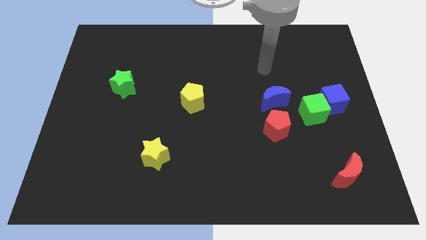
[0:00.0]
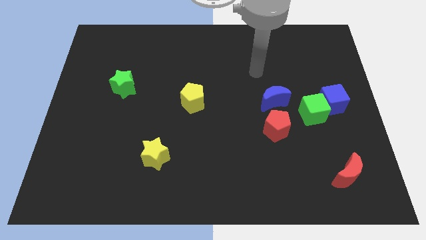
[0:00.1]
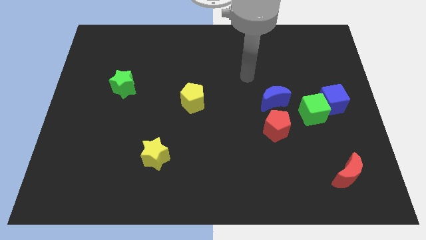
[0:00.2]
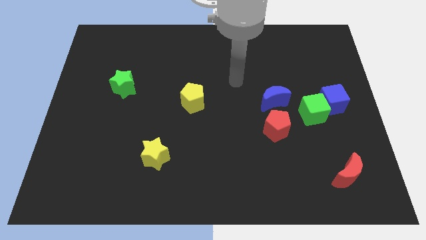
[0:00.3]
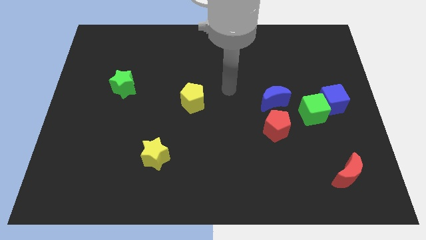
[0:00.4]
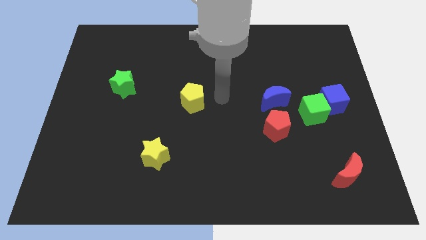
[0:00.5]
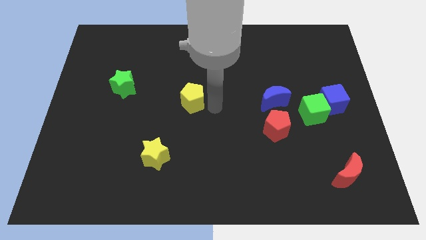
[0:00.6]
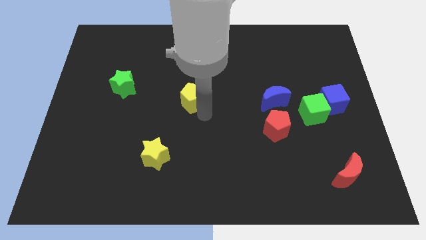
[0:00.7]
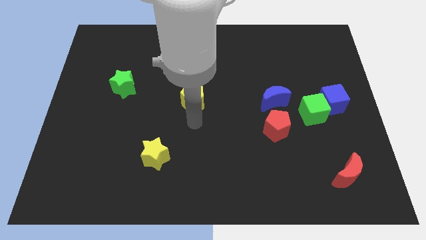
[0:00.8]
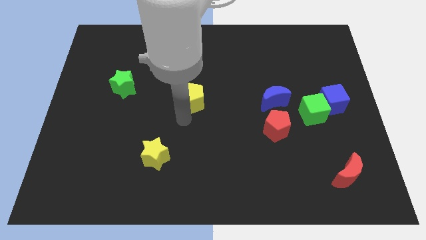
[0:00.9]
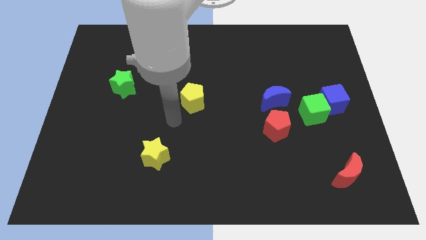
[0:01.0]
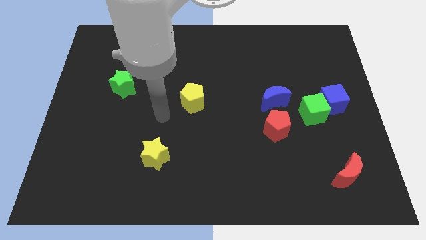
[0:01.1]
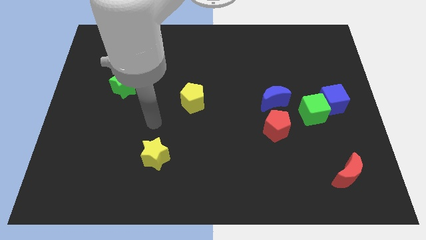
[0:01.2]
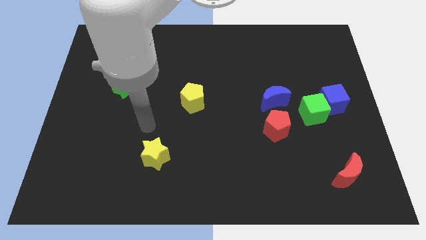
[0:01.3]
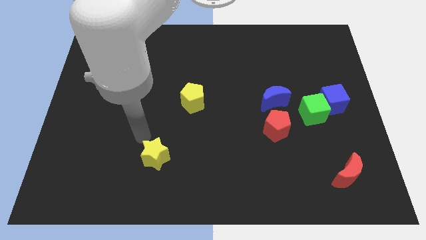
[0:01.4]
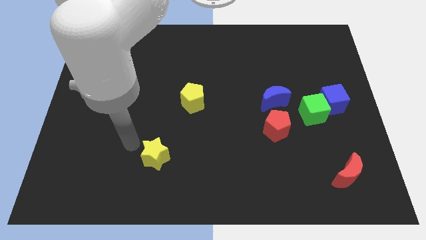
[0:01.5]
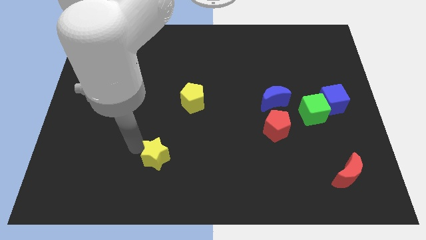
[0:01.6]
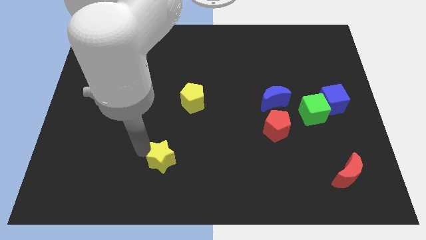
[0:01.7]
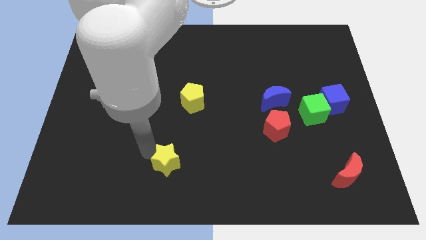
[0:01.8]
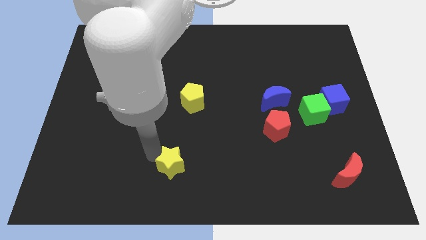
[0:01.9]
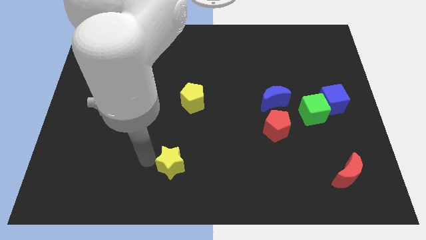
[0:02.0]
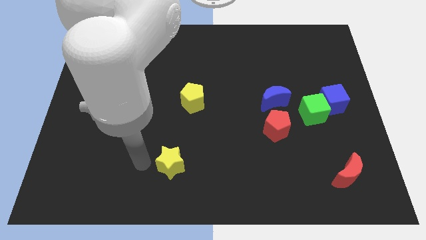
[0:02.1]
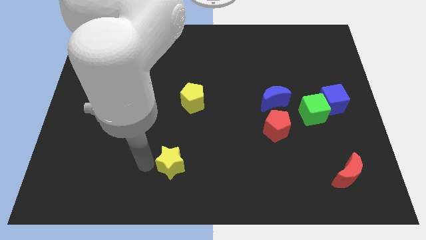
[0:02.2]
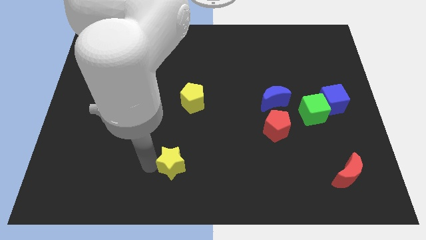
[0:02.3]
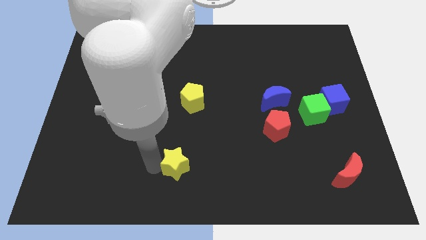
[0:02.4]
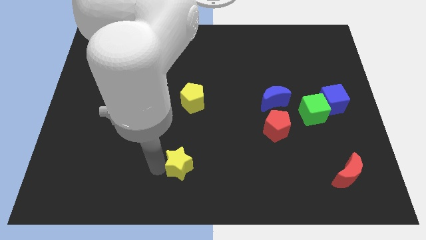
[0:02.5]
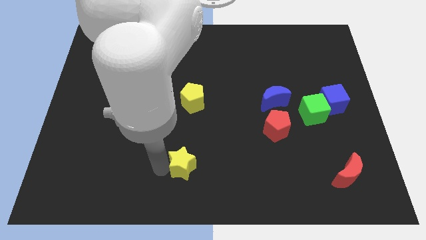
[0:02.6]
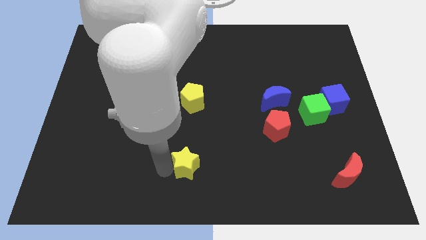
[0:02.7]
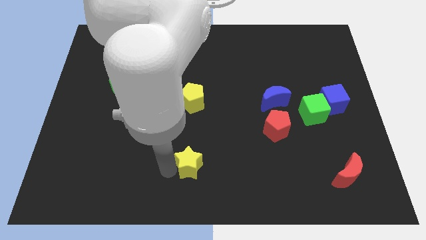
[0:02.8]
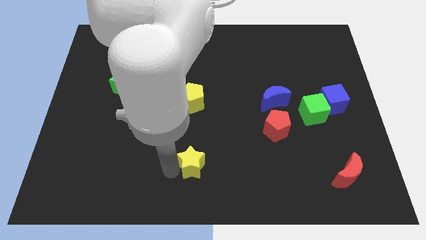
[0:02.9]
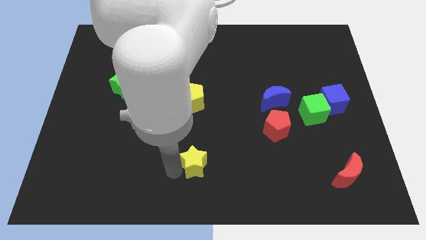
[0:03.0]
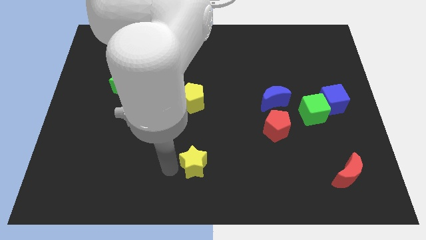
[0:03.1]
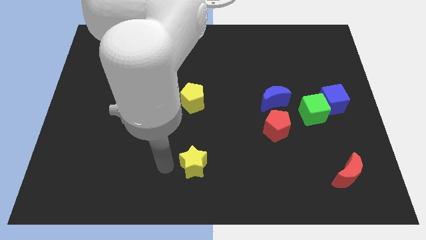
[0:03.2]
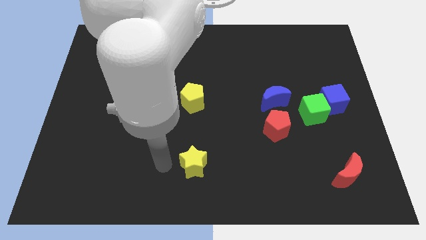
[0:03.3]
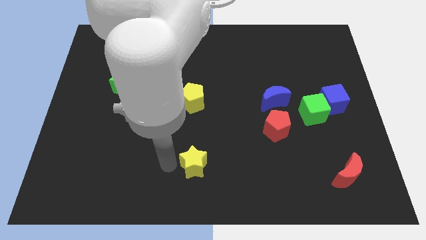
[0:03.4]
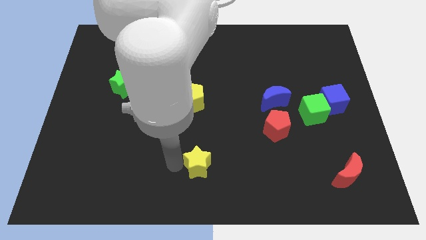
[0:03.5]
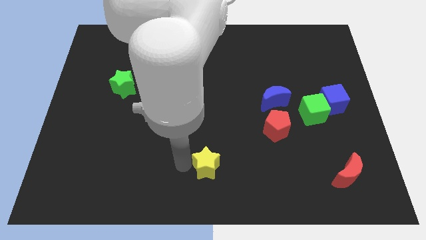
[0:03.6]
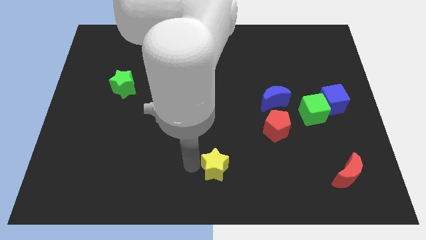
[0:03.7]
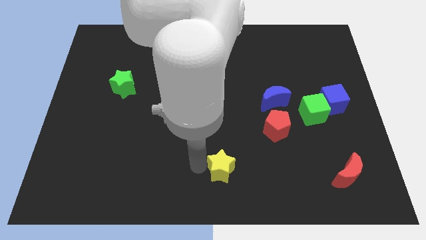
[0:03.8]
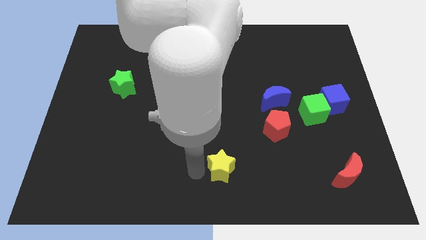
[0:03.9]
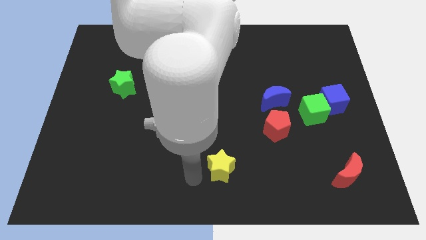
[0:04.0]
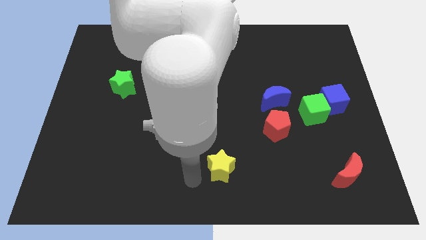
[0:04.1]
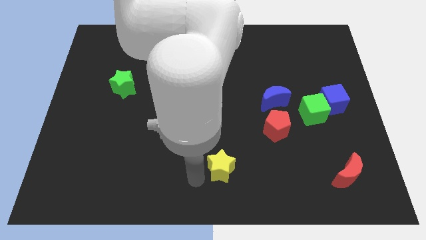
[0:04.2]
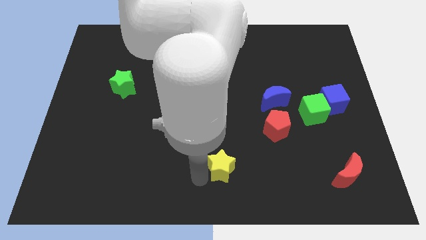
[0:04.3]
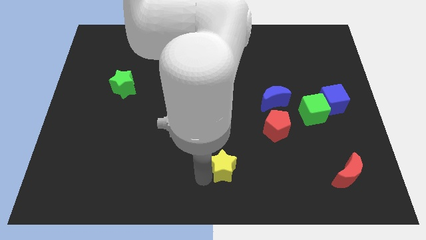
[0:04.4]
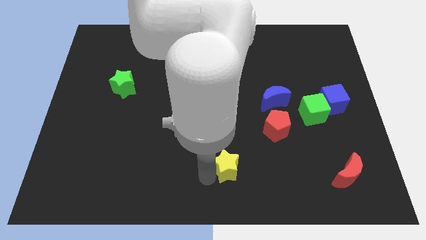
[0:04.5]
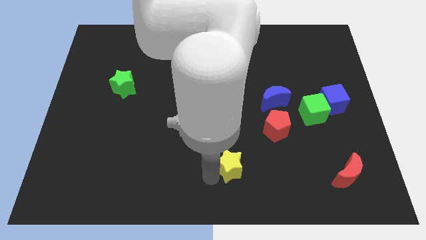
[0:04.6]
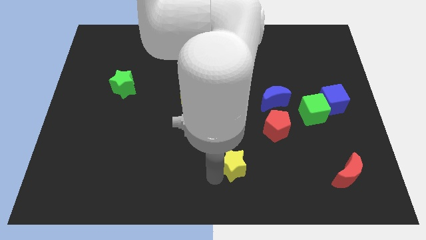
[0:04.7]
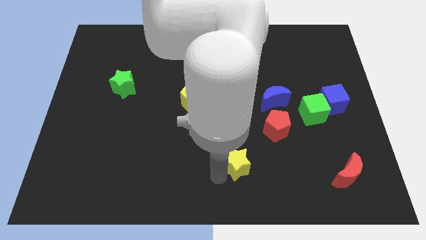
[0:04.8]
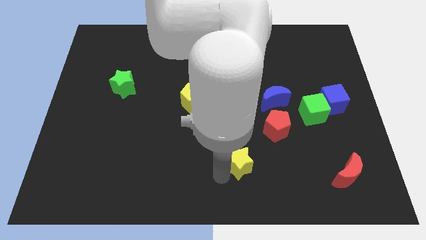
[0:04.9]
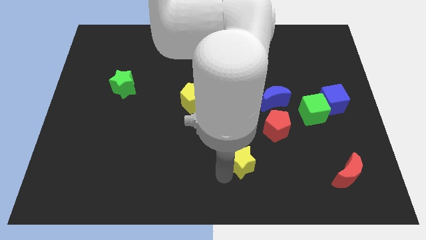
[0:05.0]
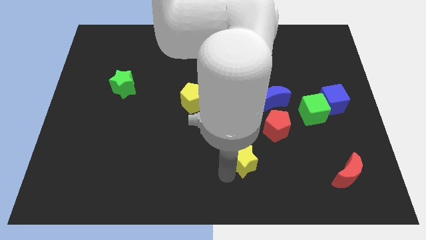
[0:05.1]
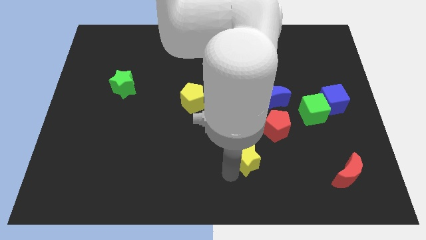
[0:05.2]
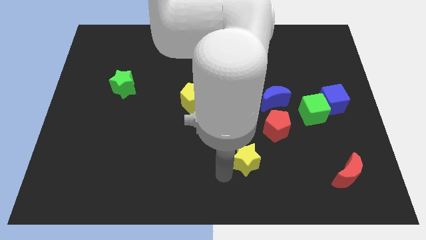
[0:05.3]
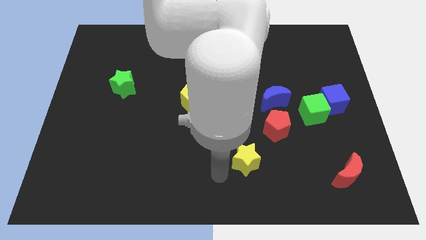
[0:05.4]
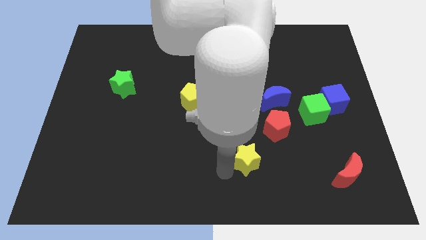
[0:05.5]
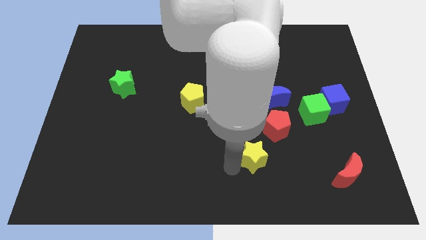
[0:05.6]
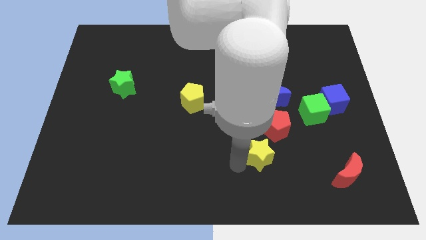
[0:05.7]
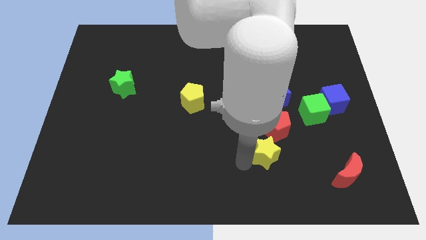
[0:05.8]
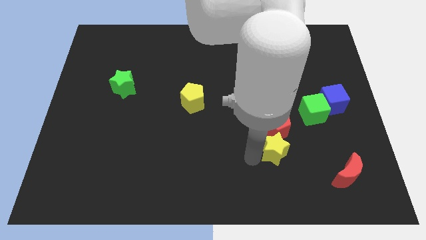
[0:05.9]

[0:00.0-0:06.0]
put the yellow star to the bottom right side of the red pentagon

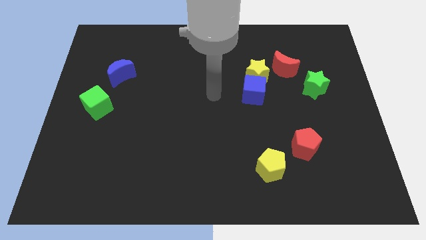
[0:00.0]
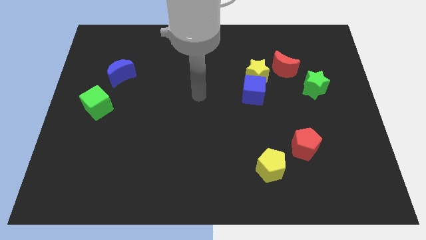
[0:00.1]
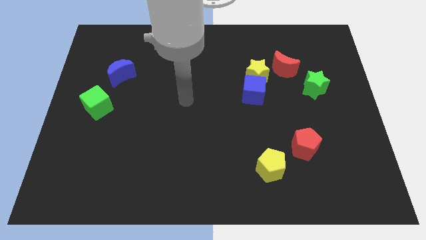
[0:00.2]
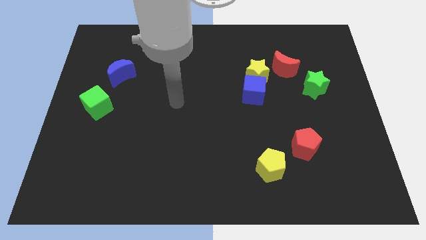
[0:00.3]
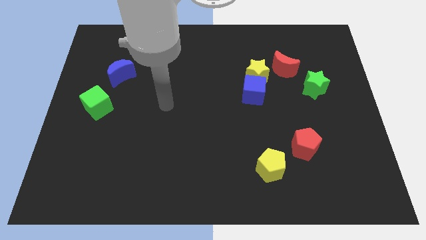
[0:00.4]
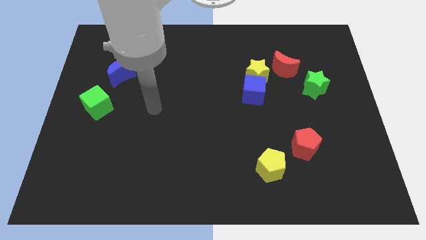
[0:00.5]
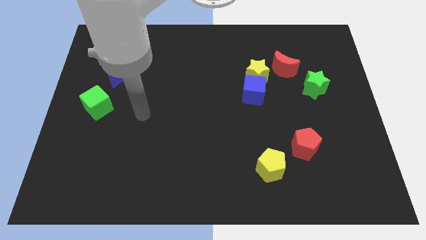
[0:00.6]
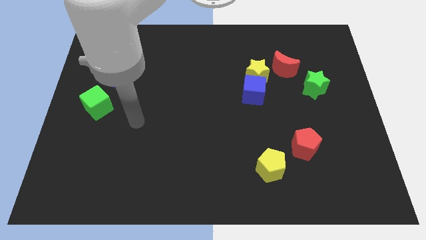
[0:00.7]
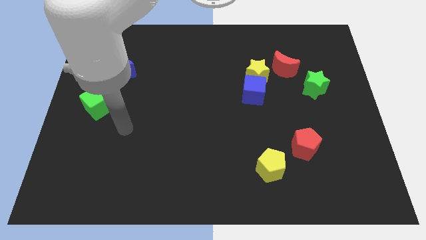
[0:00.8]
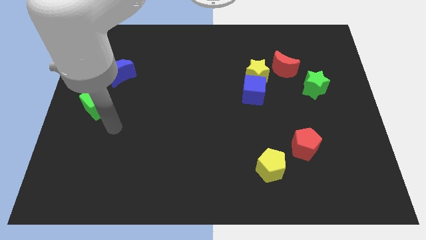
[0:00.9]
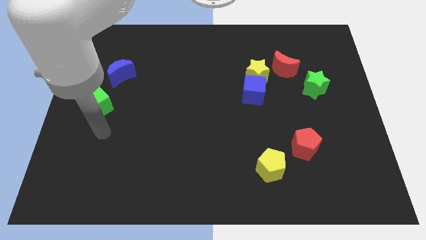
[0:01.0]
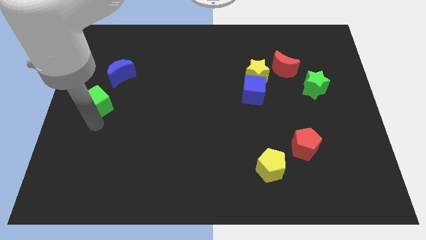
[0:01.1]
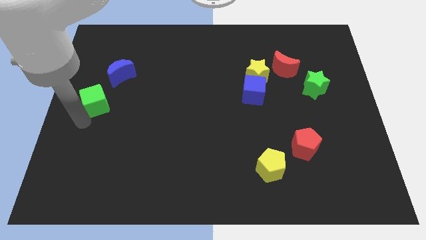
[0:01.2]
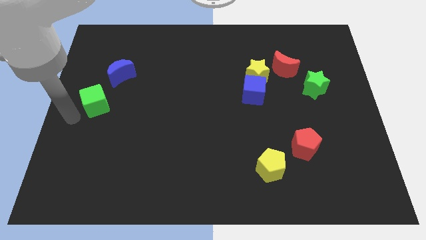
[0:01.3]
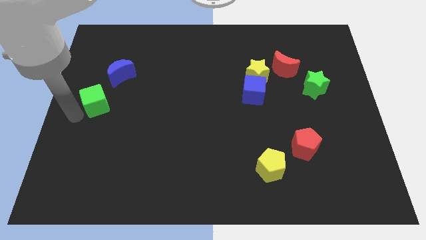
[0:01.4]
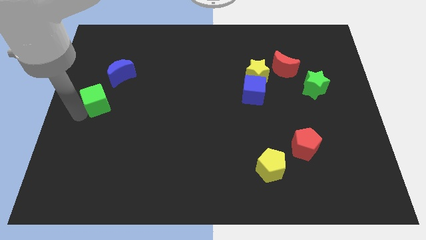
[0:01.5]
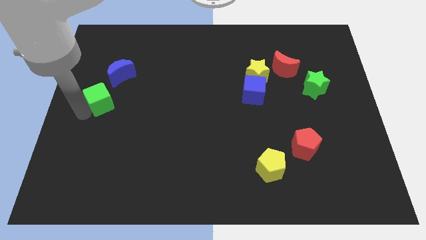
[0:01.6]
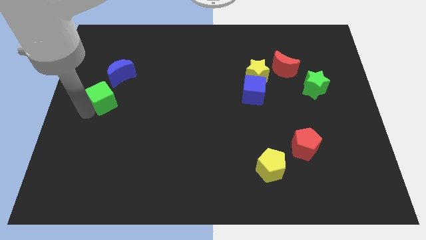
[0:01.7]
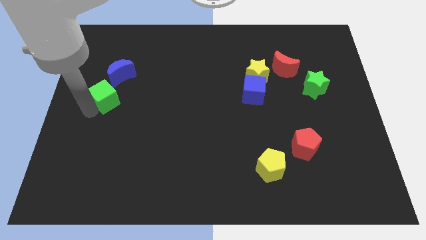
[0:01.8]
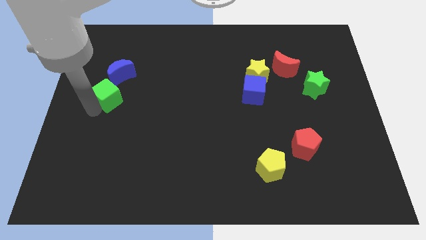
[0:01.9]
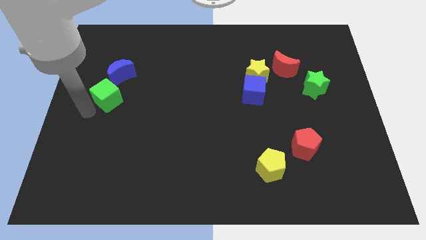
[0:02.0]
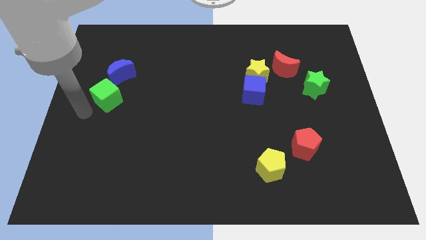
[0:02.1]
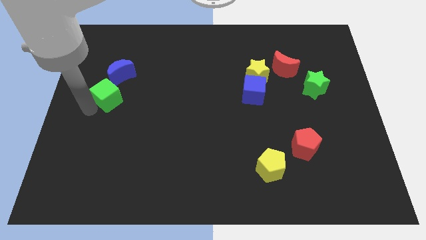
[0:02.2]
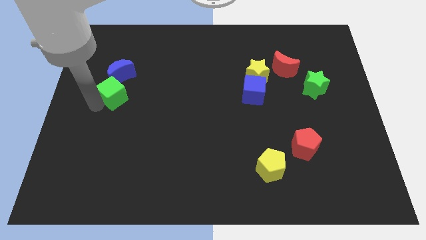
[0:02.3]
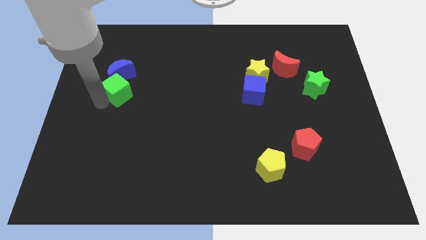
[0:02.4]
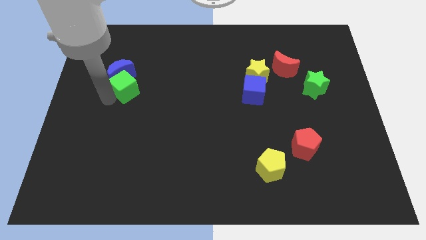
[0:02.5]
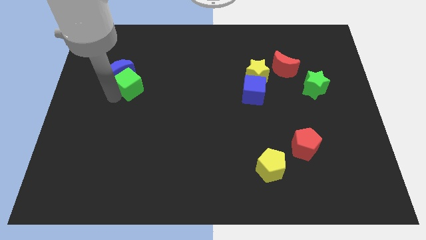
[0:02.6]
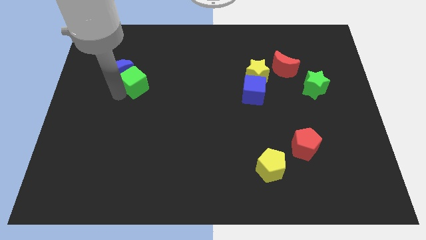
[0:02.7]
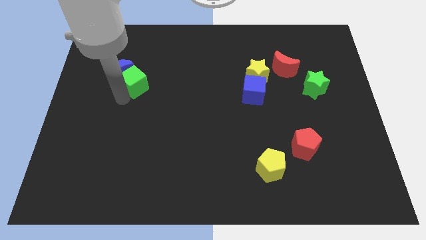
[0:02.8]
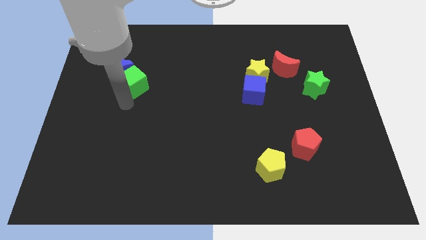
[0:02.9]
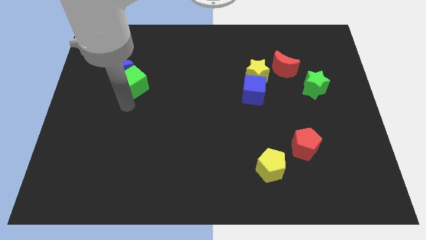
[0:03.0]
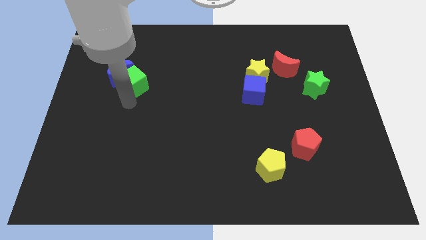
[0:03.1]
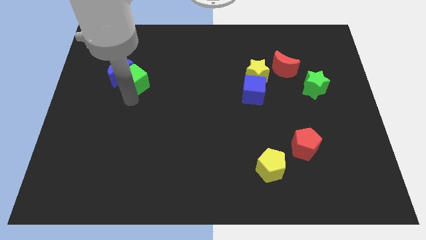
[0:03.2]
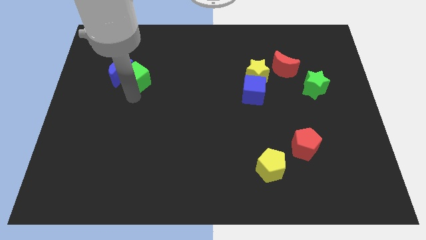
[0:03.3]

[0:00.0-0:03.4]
slide the green cube to the top right side of the blue moon
